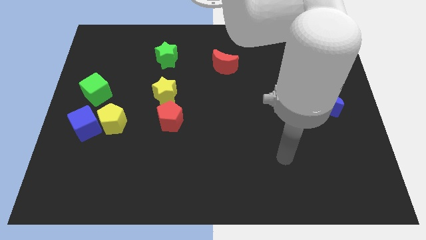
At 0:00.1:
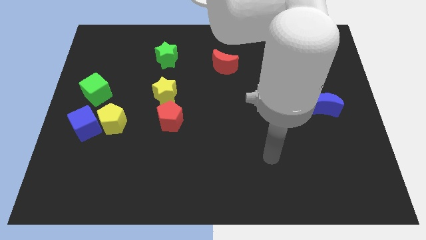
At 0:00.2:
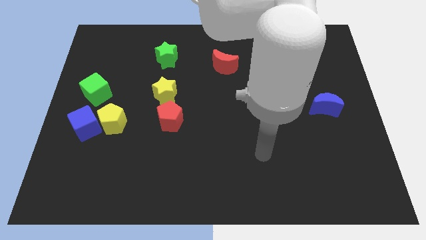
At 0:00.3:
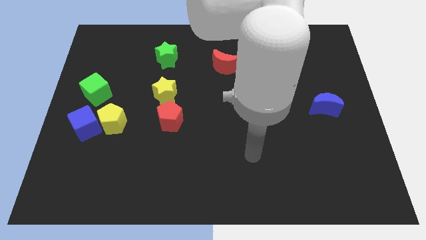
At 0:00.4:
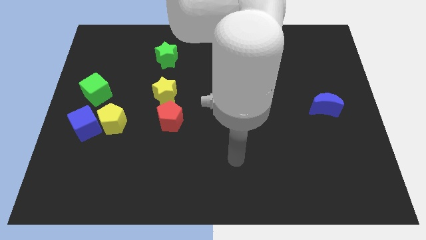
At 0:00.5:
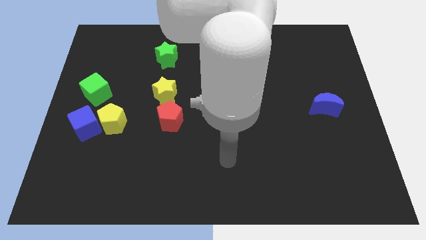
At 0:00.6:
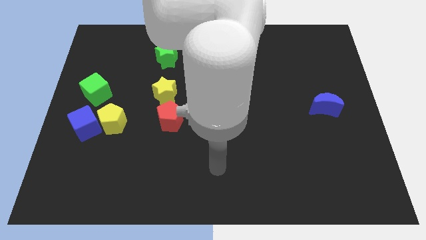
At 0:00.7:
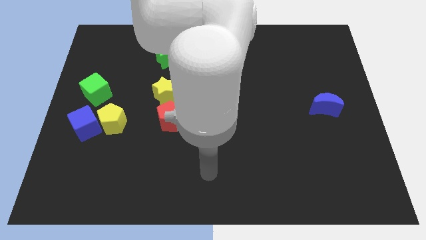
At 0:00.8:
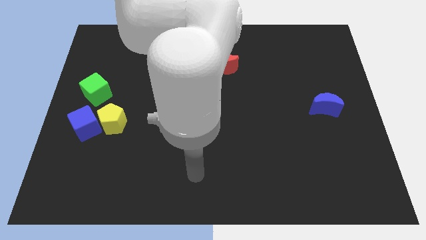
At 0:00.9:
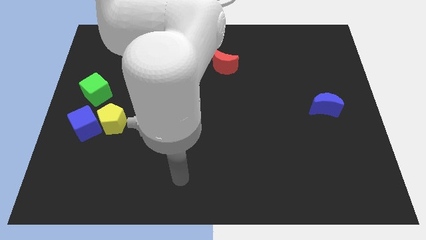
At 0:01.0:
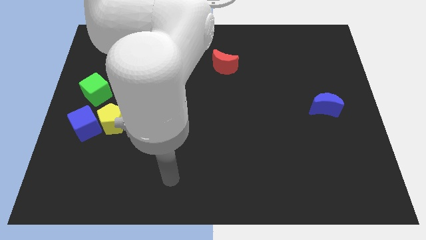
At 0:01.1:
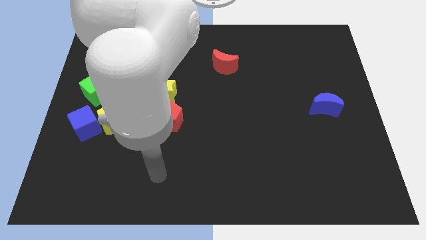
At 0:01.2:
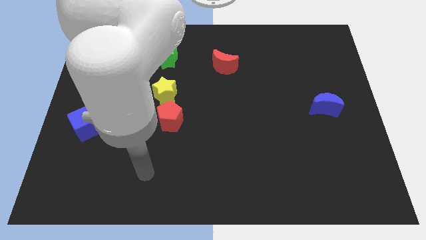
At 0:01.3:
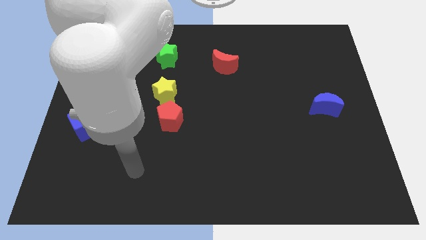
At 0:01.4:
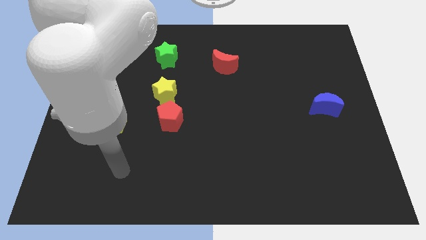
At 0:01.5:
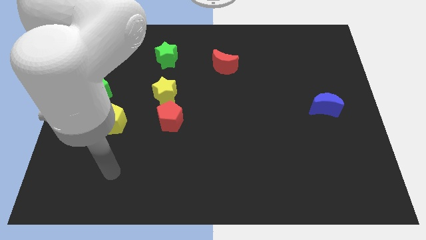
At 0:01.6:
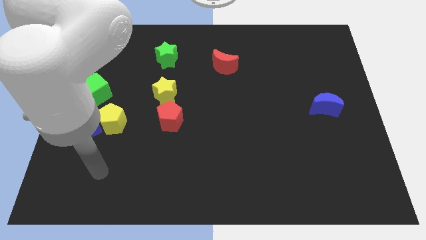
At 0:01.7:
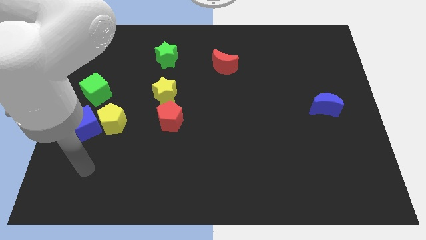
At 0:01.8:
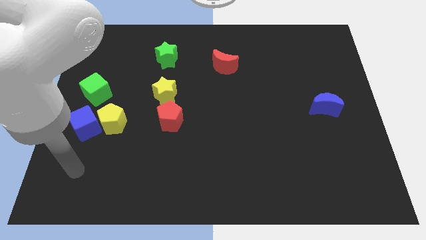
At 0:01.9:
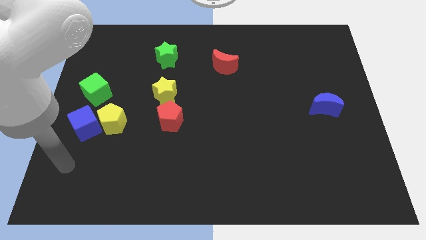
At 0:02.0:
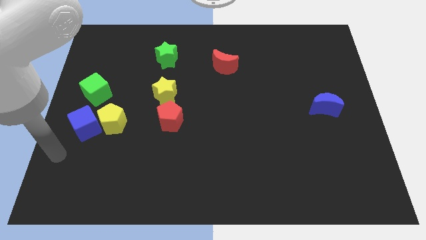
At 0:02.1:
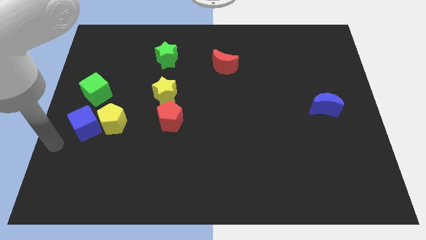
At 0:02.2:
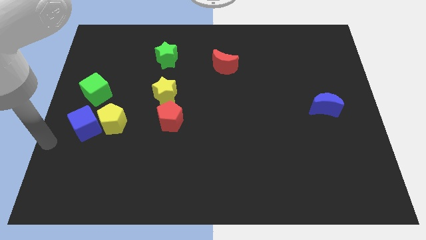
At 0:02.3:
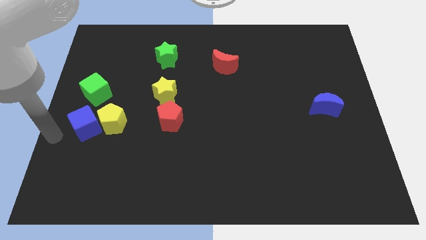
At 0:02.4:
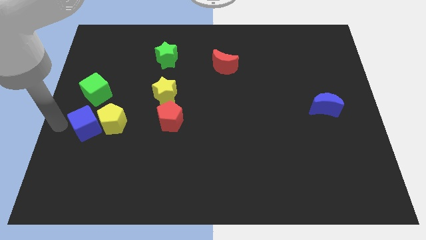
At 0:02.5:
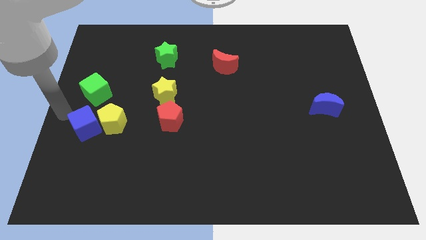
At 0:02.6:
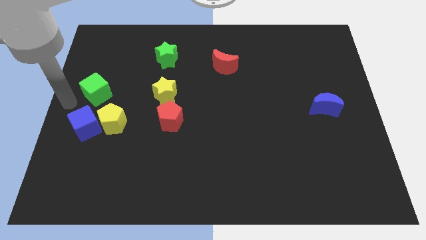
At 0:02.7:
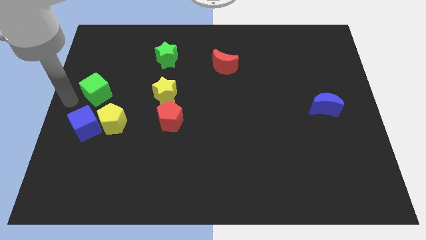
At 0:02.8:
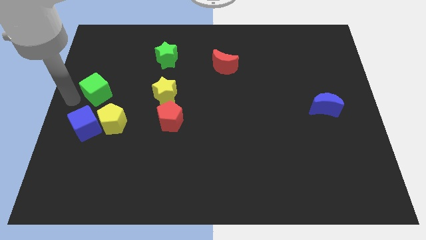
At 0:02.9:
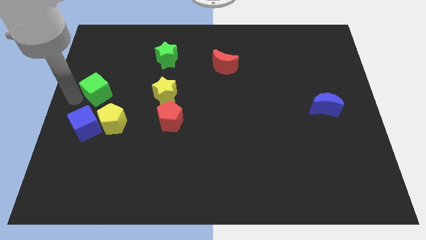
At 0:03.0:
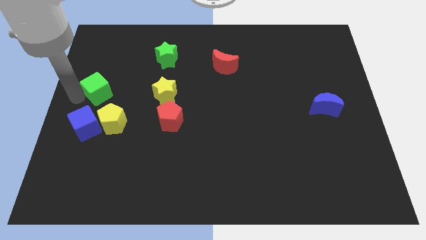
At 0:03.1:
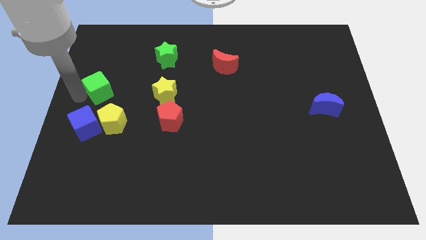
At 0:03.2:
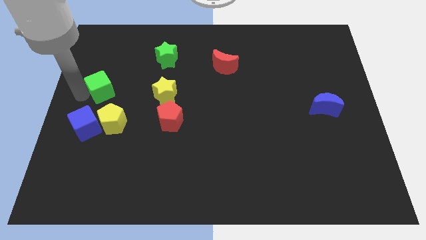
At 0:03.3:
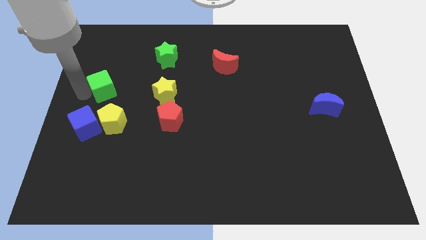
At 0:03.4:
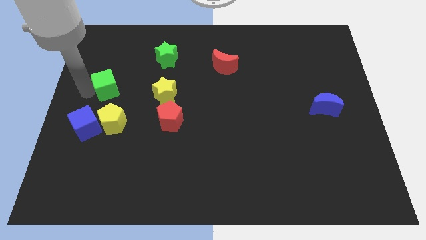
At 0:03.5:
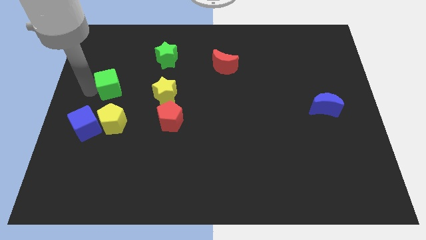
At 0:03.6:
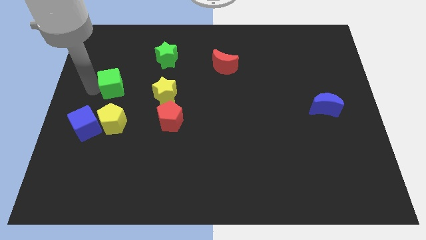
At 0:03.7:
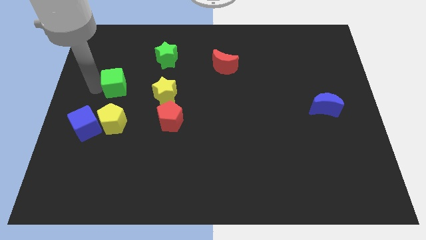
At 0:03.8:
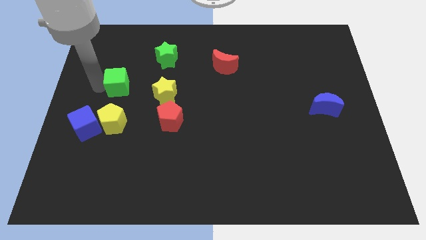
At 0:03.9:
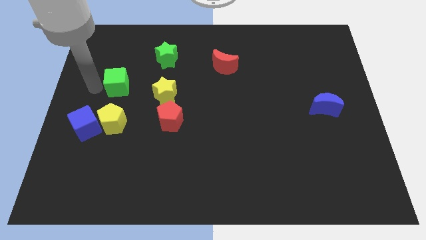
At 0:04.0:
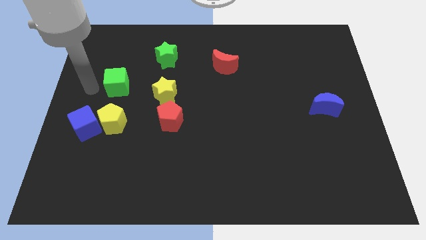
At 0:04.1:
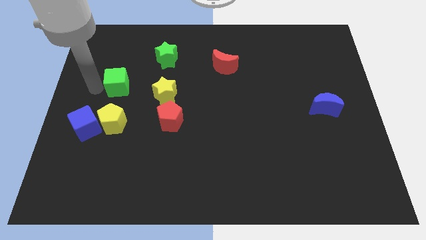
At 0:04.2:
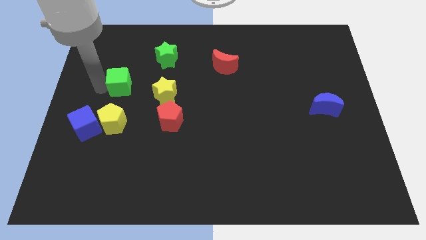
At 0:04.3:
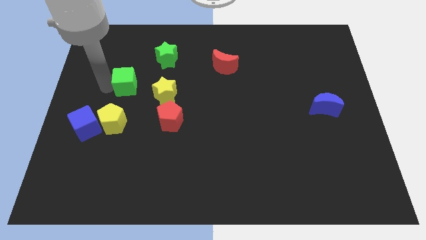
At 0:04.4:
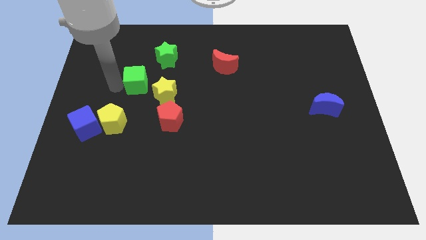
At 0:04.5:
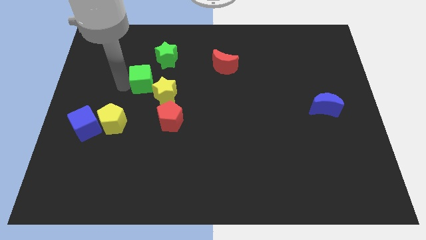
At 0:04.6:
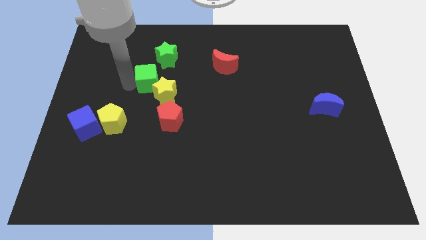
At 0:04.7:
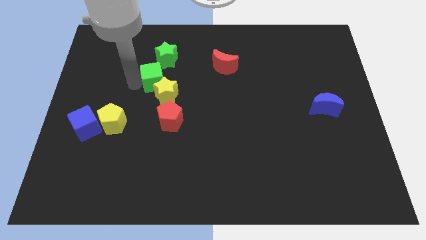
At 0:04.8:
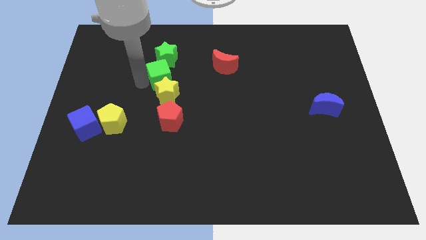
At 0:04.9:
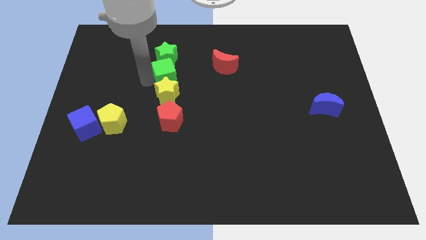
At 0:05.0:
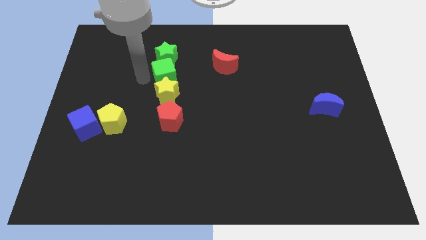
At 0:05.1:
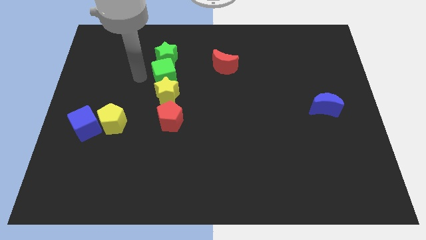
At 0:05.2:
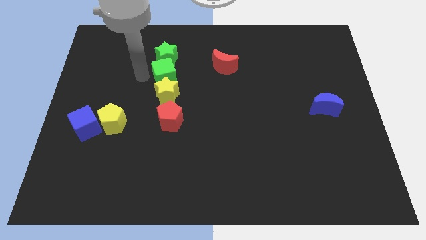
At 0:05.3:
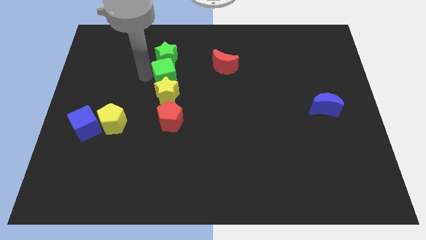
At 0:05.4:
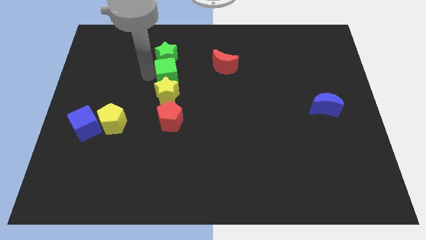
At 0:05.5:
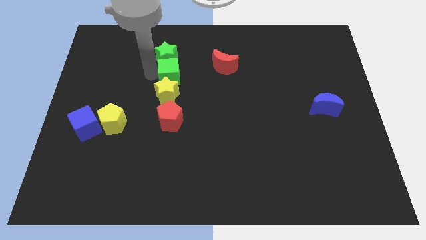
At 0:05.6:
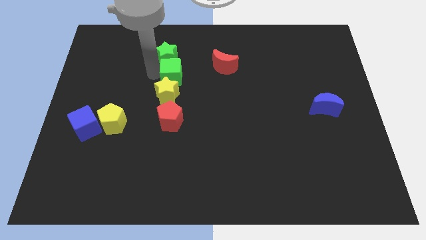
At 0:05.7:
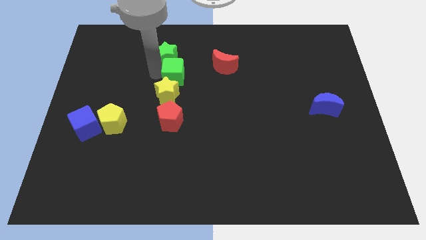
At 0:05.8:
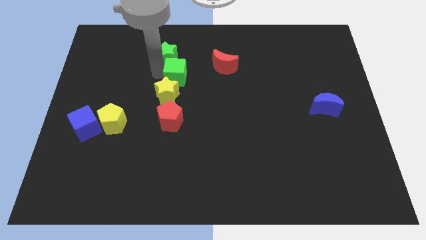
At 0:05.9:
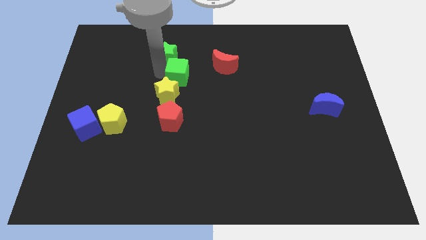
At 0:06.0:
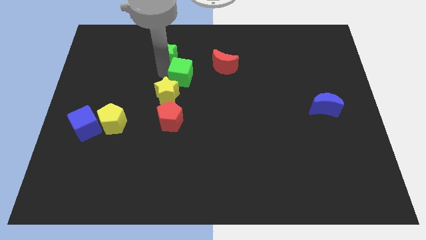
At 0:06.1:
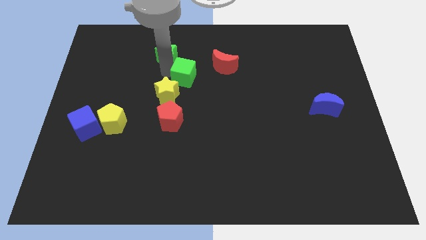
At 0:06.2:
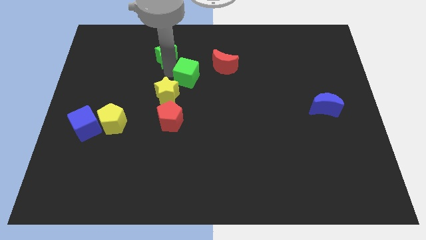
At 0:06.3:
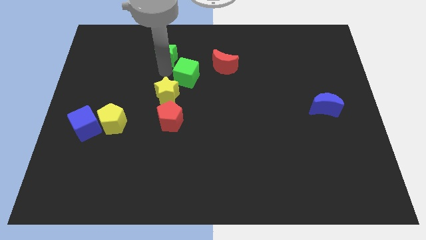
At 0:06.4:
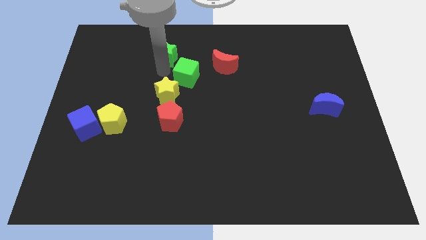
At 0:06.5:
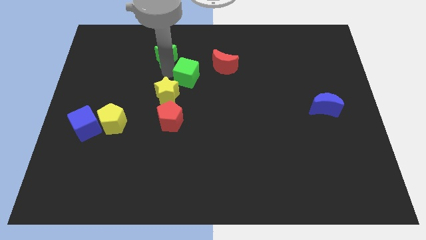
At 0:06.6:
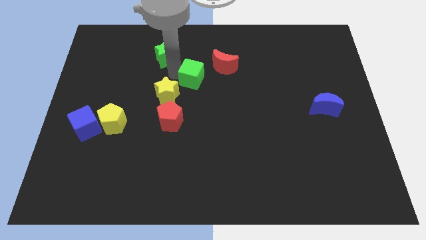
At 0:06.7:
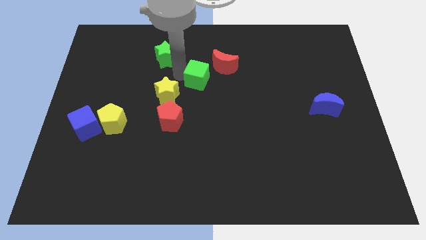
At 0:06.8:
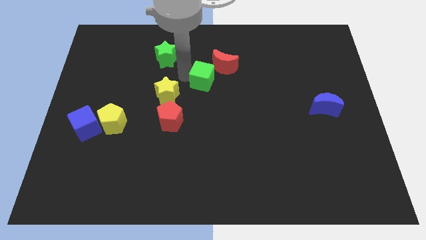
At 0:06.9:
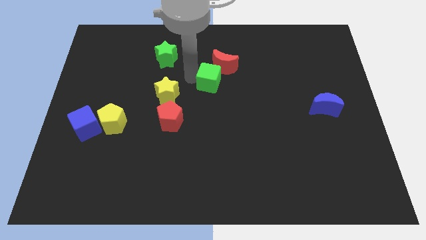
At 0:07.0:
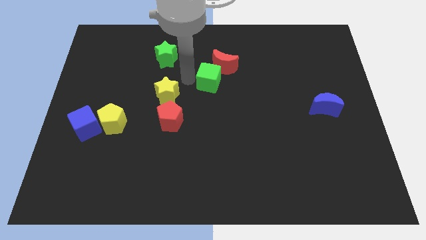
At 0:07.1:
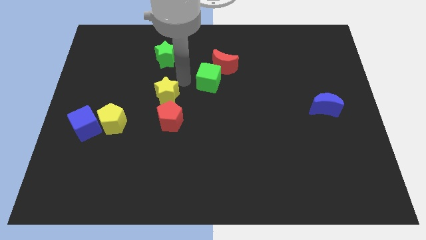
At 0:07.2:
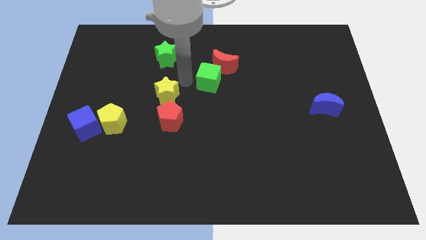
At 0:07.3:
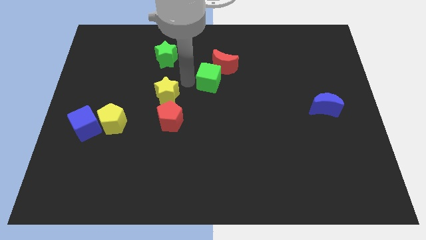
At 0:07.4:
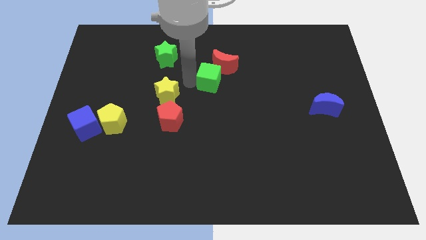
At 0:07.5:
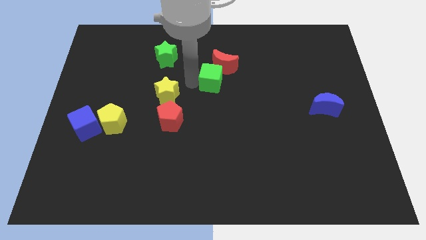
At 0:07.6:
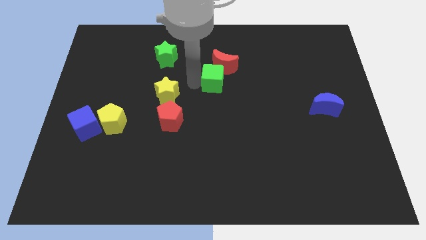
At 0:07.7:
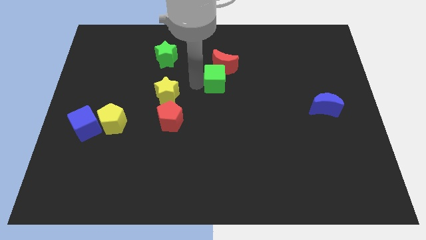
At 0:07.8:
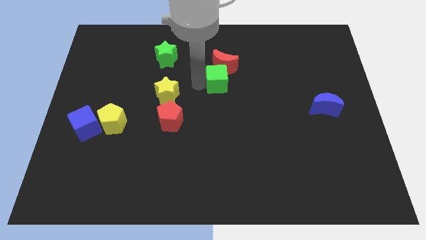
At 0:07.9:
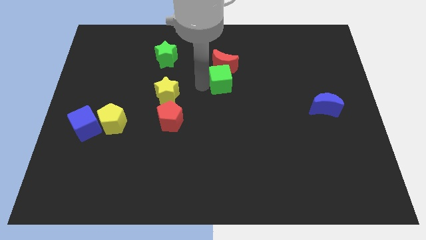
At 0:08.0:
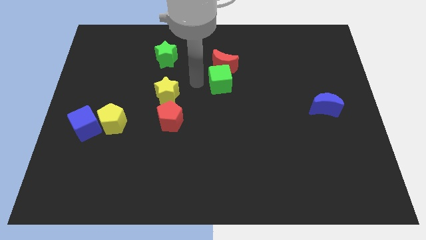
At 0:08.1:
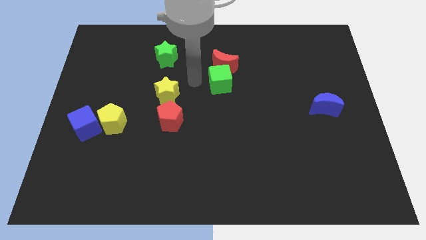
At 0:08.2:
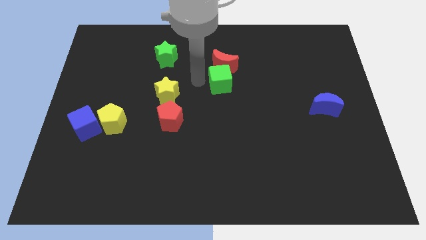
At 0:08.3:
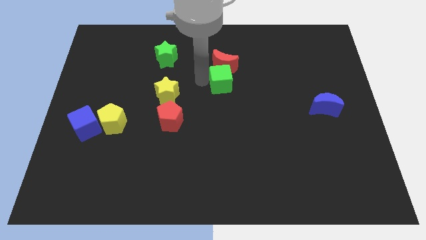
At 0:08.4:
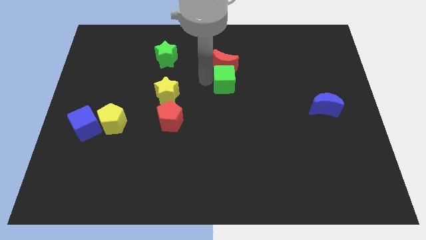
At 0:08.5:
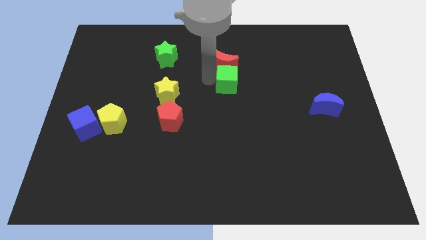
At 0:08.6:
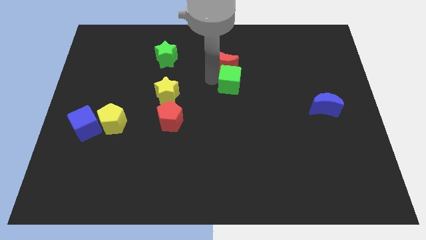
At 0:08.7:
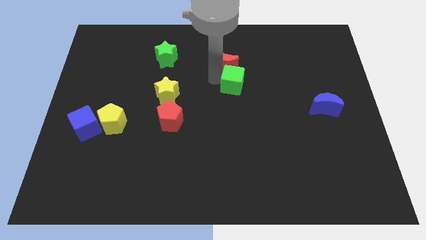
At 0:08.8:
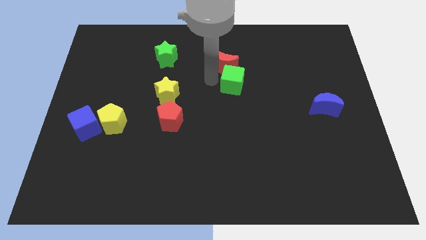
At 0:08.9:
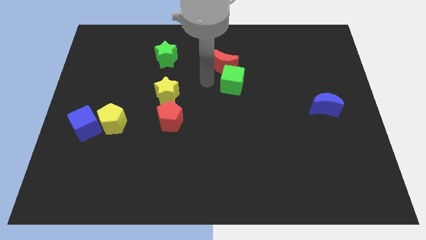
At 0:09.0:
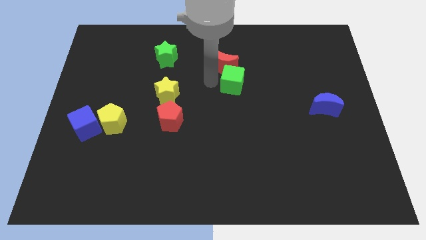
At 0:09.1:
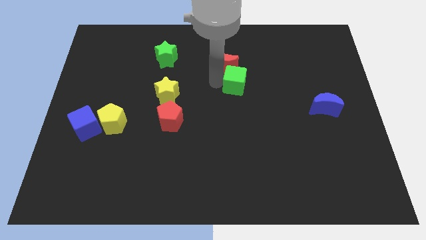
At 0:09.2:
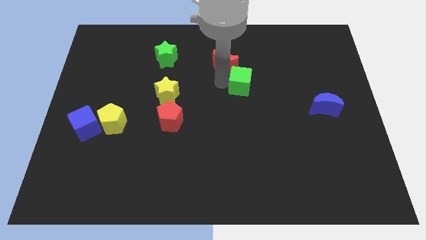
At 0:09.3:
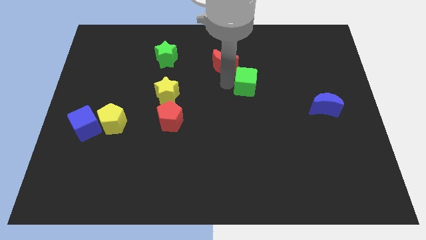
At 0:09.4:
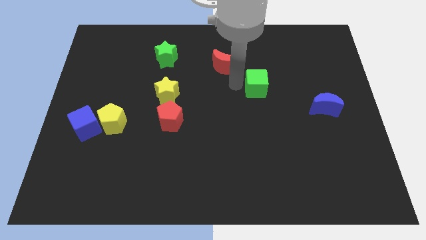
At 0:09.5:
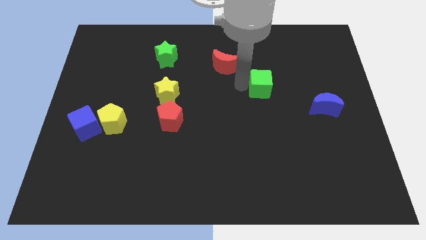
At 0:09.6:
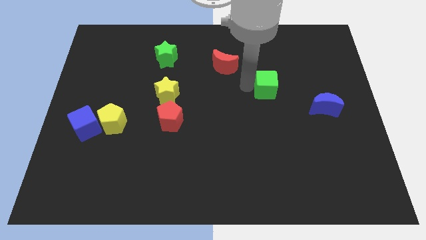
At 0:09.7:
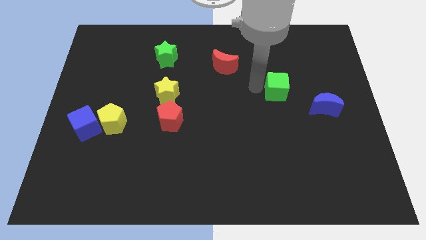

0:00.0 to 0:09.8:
slide the green cube diagonally up and to the left of the blue moon
